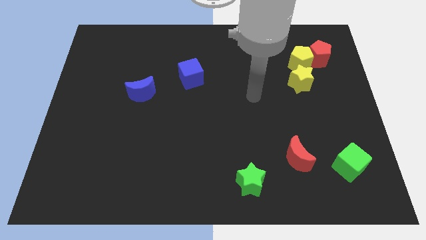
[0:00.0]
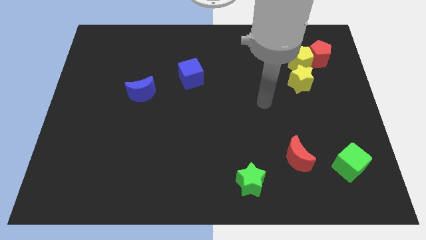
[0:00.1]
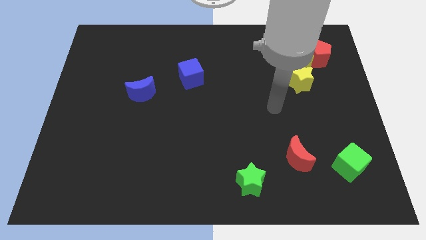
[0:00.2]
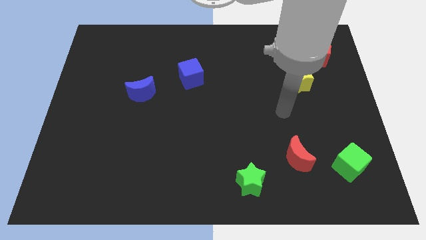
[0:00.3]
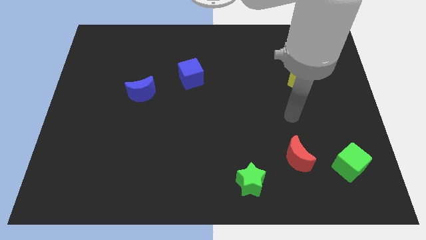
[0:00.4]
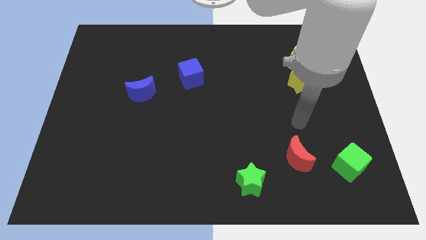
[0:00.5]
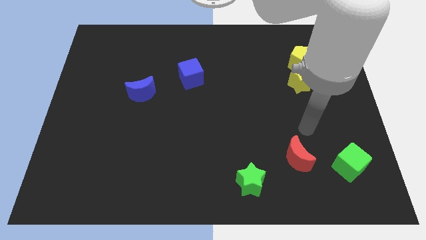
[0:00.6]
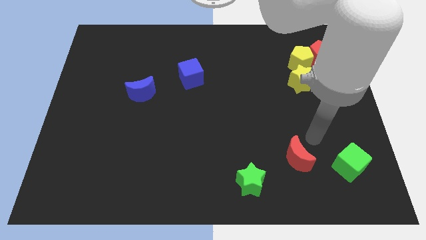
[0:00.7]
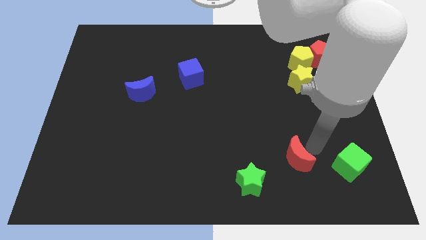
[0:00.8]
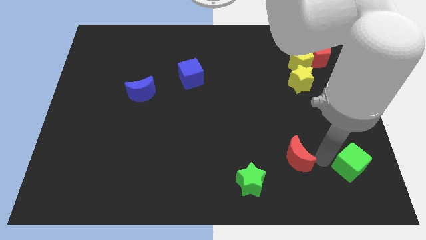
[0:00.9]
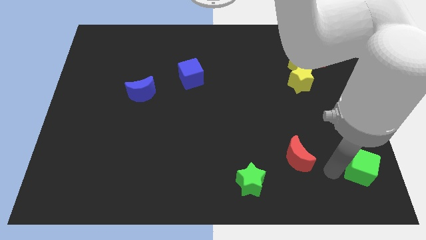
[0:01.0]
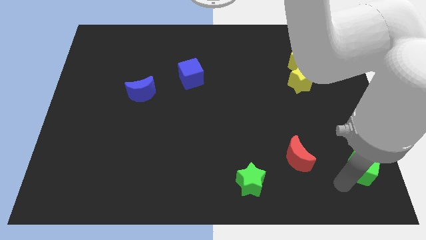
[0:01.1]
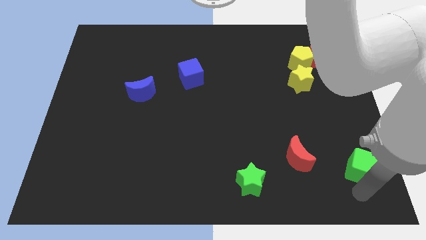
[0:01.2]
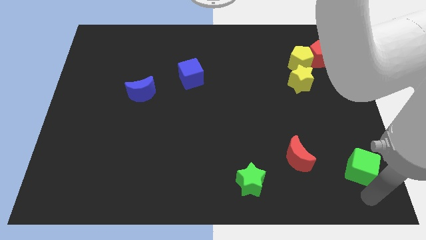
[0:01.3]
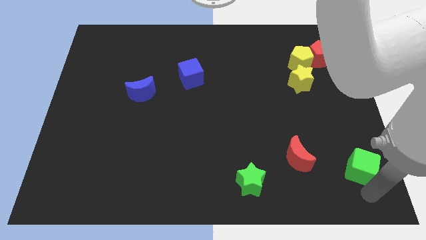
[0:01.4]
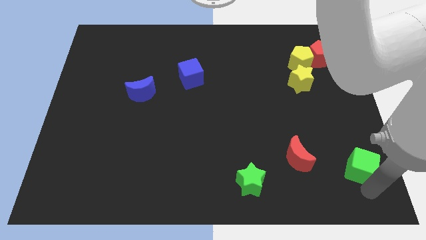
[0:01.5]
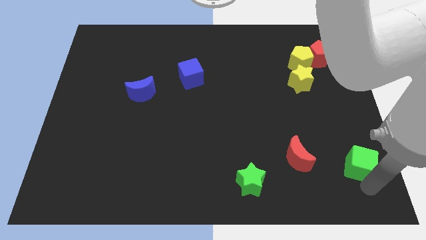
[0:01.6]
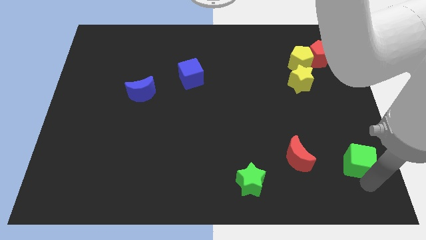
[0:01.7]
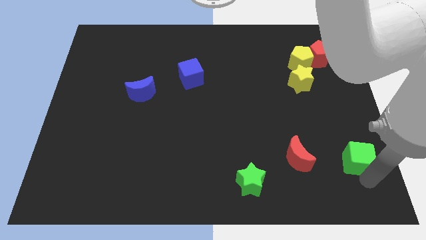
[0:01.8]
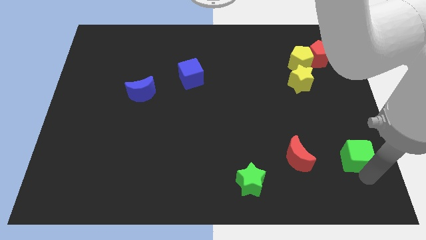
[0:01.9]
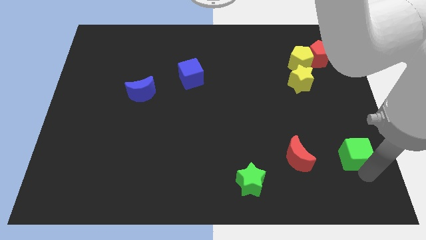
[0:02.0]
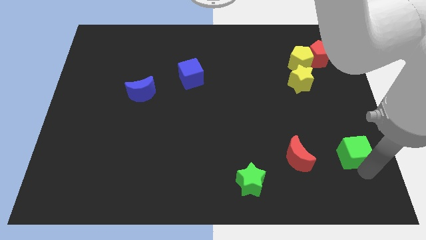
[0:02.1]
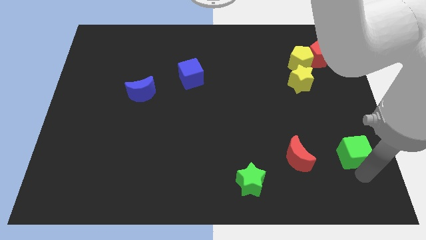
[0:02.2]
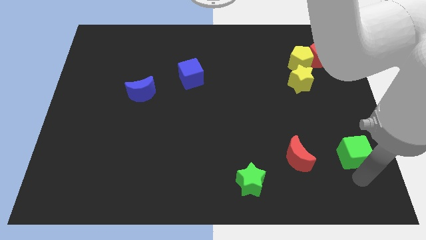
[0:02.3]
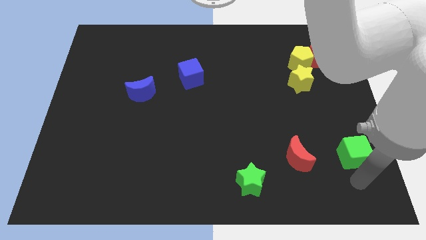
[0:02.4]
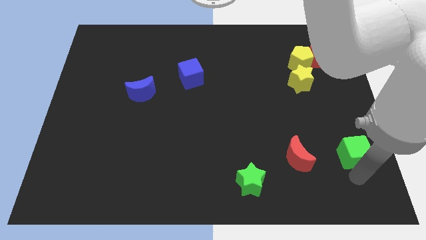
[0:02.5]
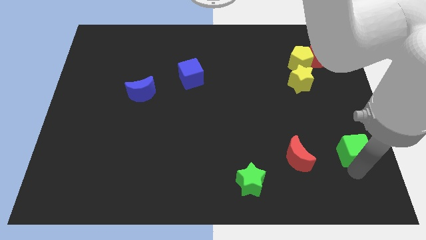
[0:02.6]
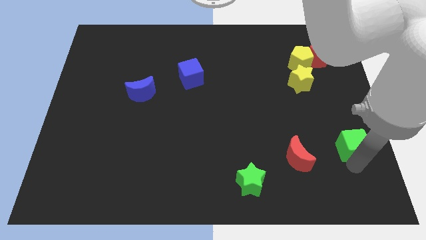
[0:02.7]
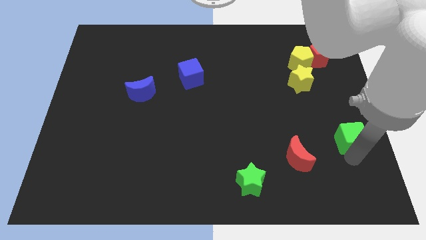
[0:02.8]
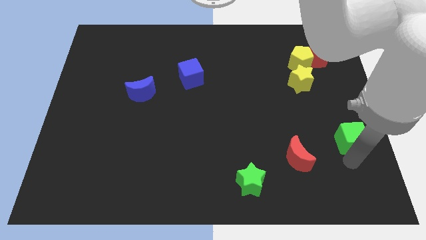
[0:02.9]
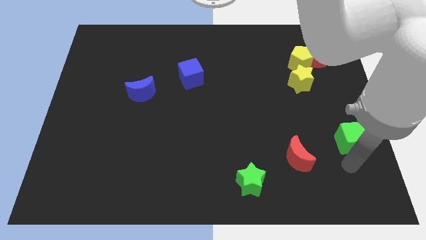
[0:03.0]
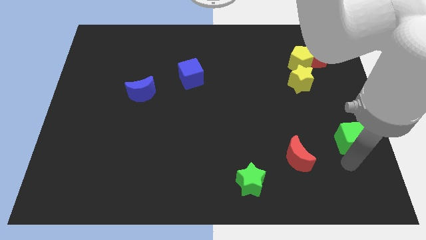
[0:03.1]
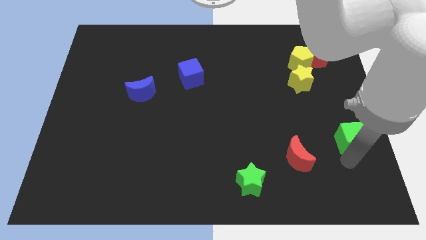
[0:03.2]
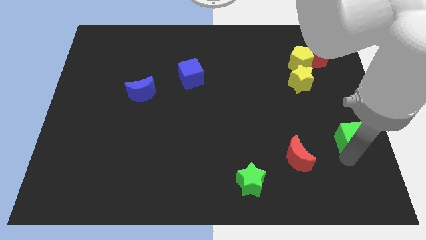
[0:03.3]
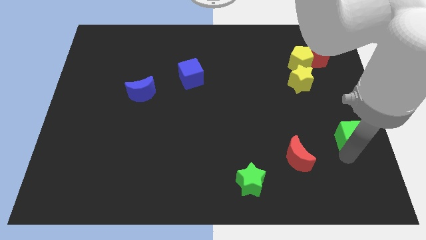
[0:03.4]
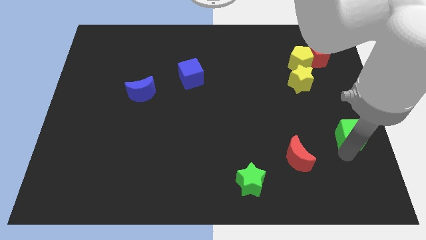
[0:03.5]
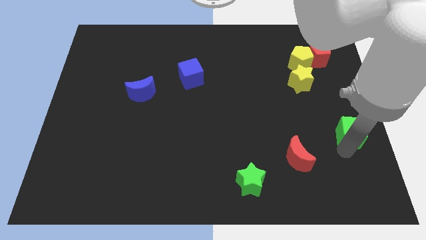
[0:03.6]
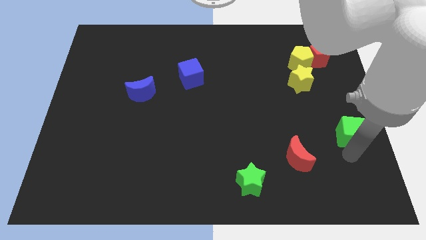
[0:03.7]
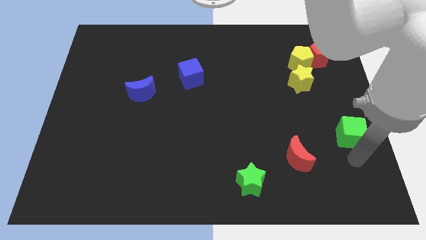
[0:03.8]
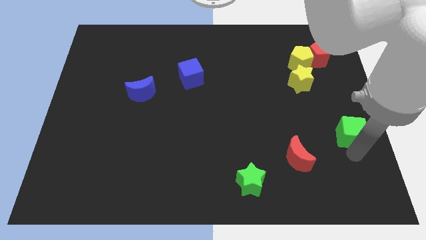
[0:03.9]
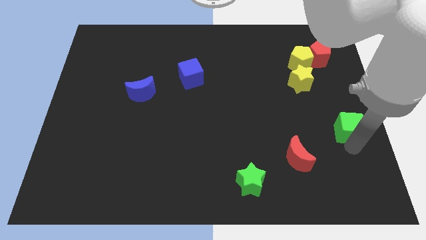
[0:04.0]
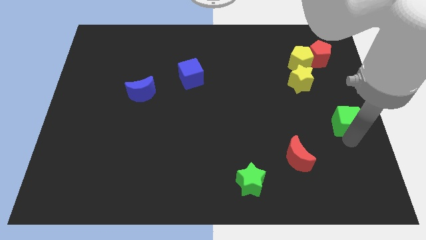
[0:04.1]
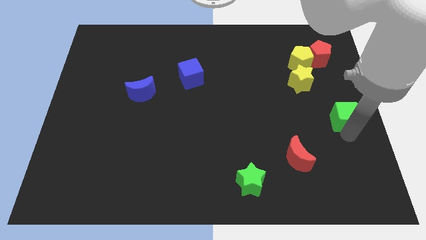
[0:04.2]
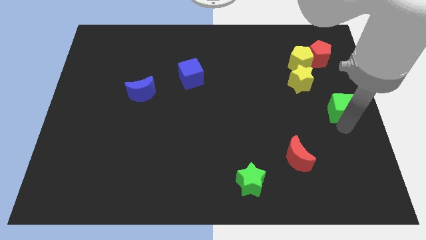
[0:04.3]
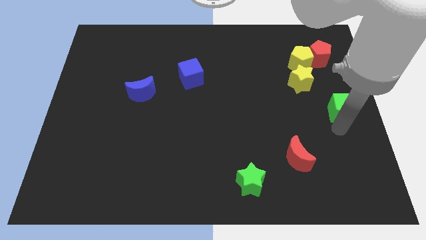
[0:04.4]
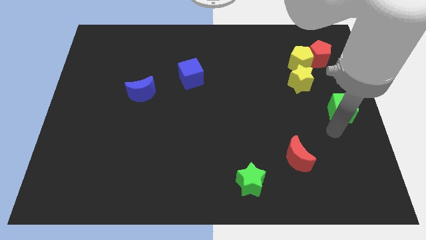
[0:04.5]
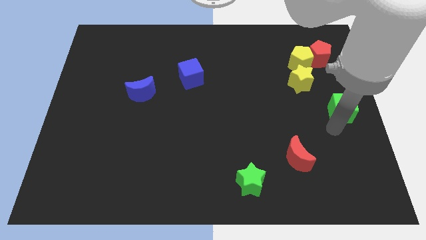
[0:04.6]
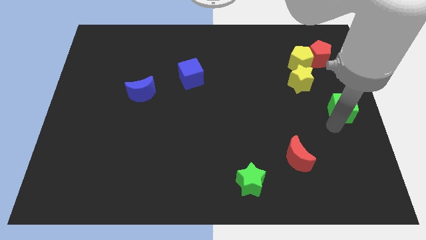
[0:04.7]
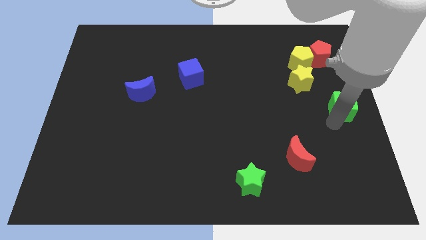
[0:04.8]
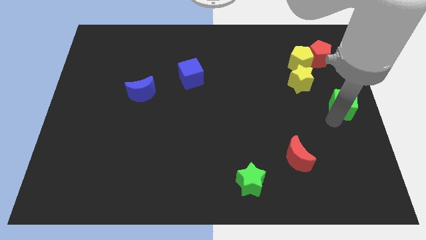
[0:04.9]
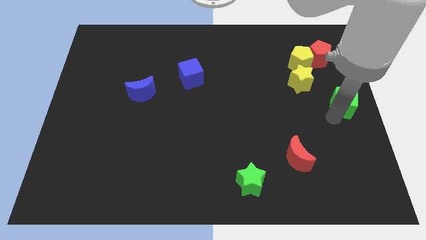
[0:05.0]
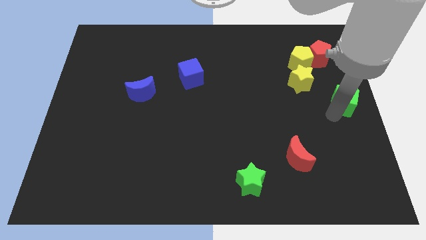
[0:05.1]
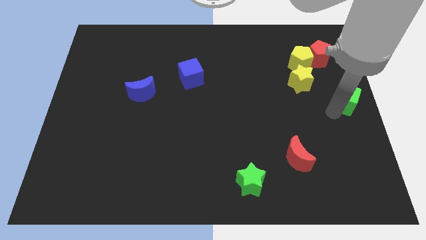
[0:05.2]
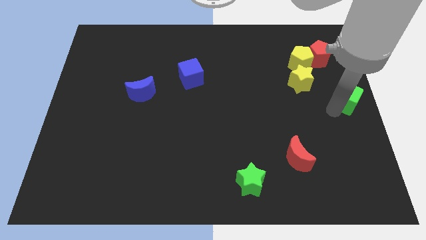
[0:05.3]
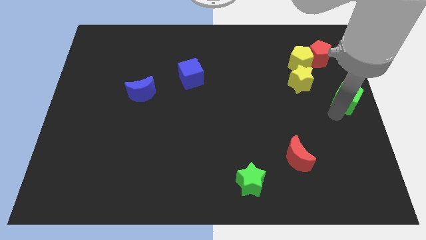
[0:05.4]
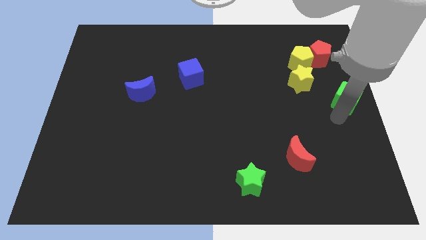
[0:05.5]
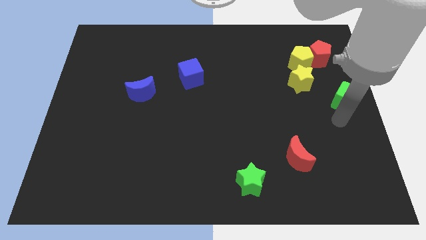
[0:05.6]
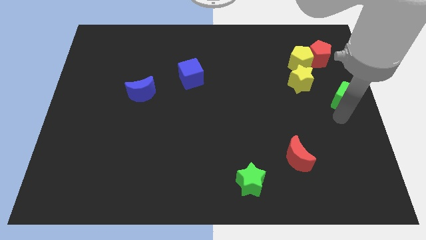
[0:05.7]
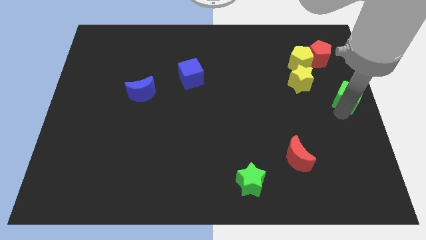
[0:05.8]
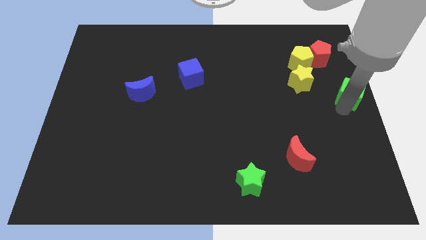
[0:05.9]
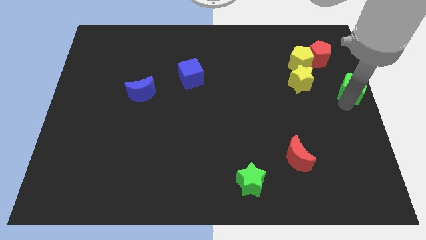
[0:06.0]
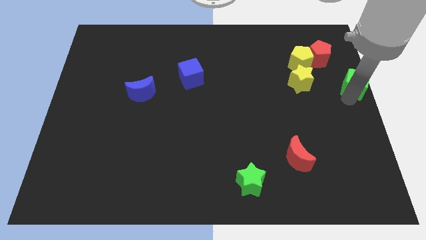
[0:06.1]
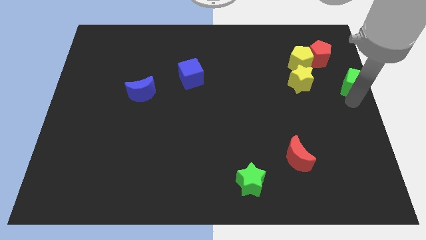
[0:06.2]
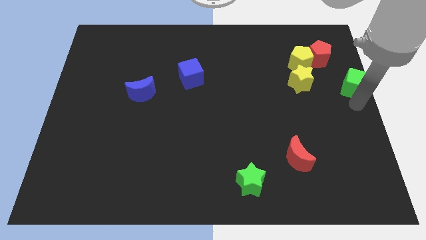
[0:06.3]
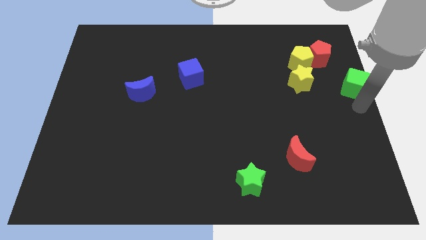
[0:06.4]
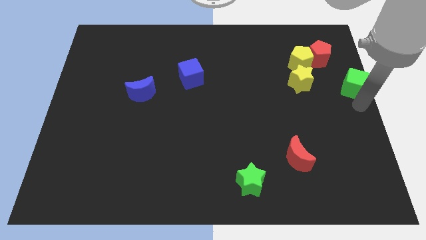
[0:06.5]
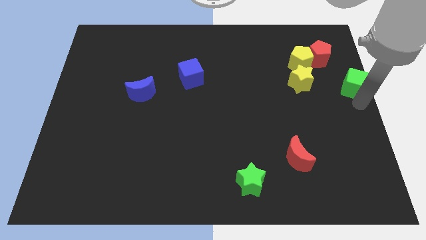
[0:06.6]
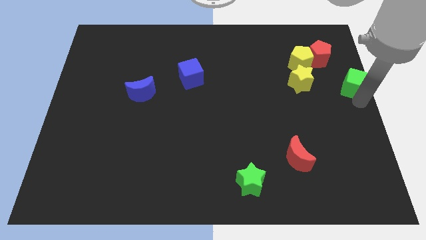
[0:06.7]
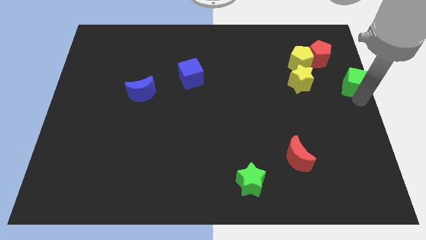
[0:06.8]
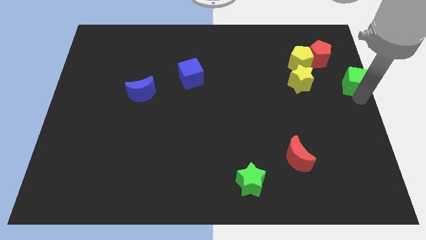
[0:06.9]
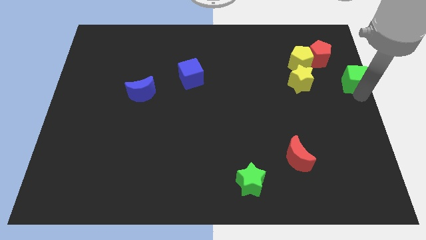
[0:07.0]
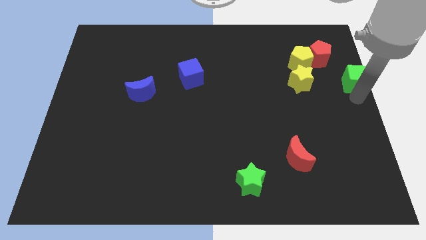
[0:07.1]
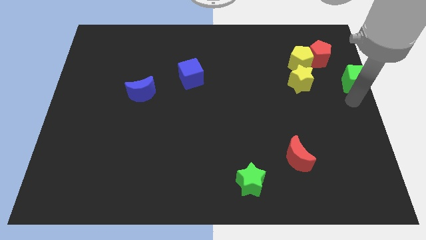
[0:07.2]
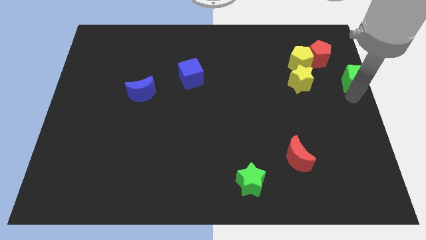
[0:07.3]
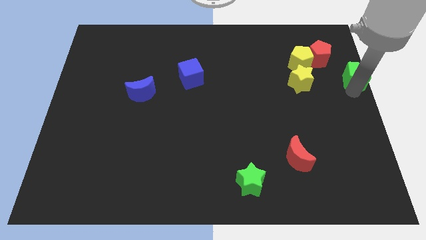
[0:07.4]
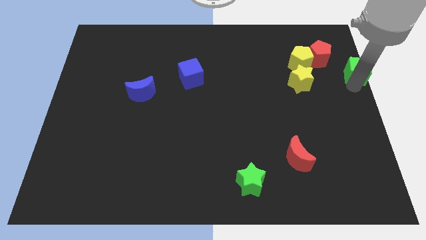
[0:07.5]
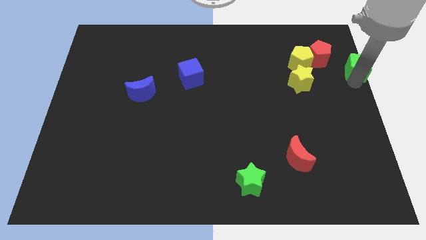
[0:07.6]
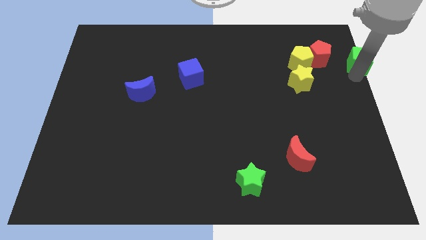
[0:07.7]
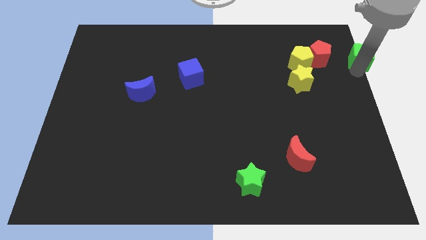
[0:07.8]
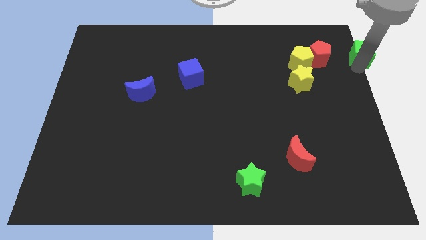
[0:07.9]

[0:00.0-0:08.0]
push the green cube to the top right
